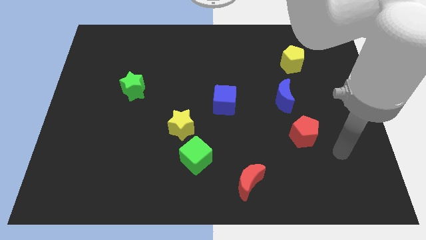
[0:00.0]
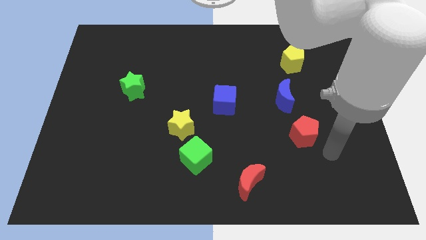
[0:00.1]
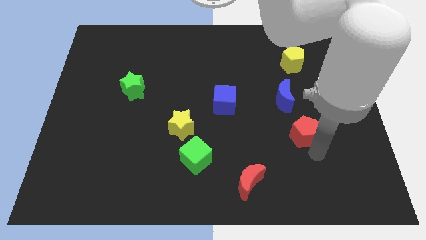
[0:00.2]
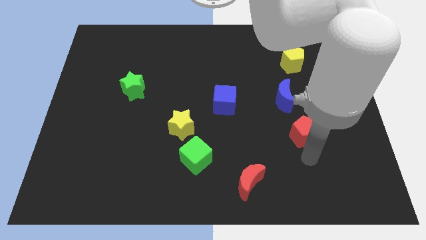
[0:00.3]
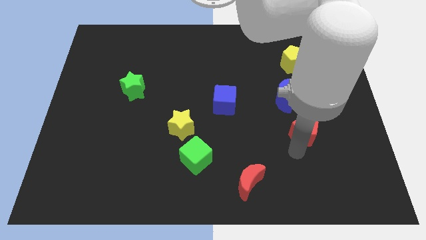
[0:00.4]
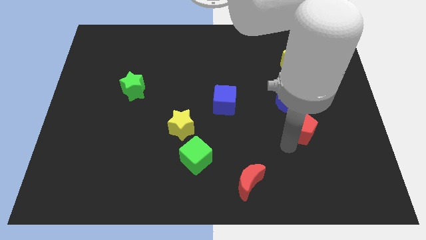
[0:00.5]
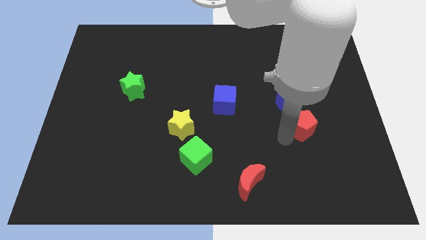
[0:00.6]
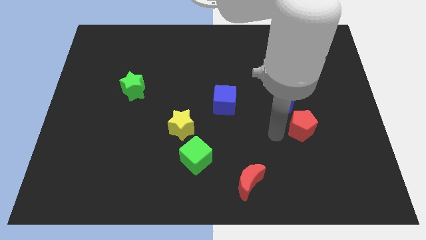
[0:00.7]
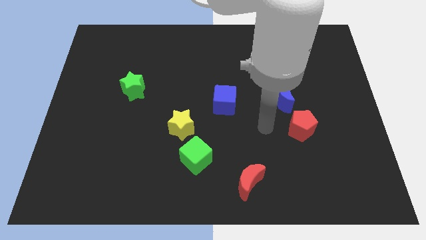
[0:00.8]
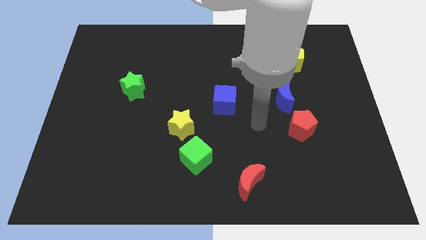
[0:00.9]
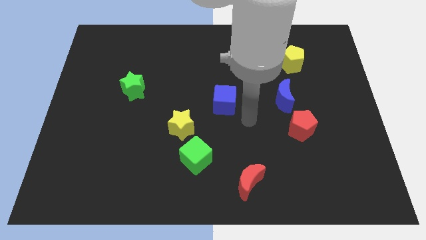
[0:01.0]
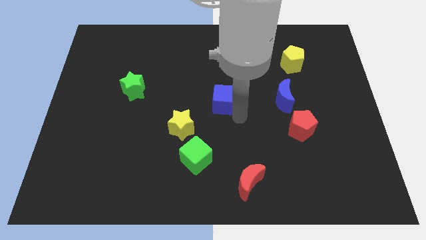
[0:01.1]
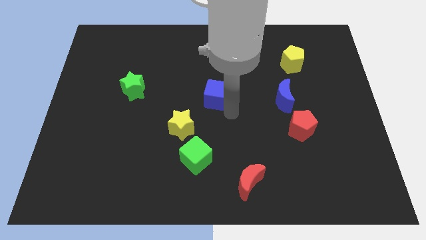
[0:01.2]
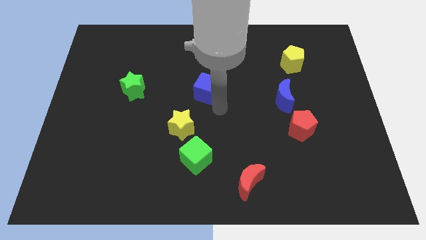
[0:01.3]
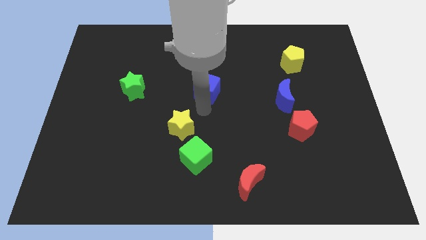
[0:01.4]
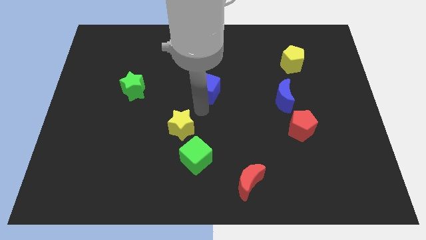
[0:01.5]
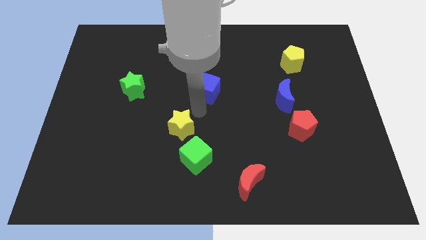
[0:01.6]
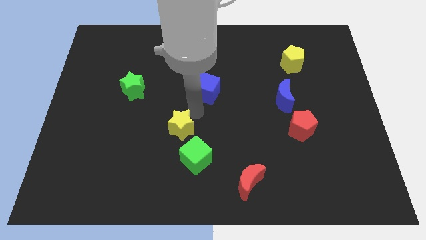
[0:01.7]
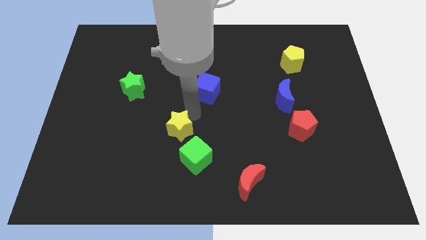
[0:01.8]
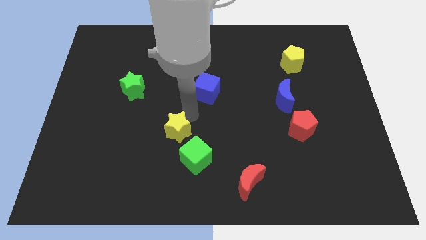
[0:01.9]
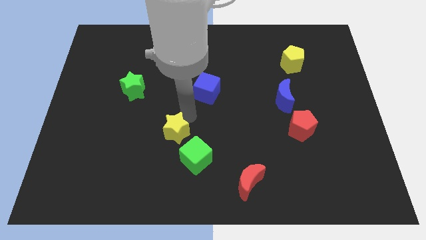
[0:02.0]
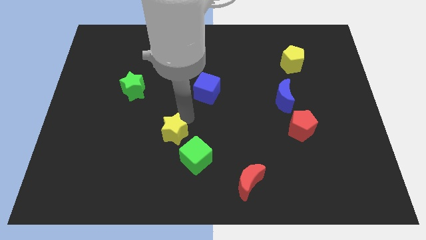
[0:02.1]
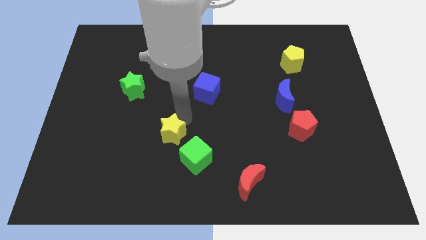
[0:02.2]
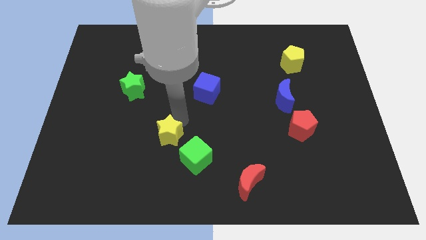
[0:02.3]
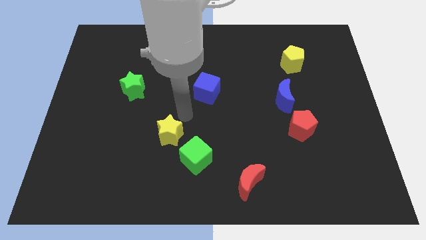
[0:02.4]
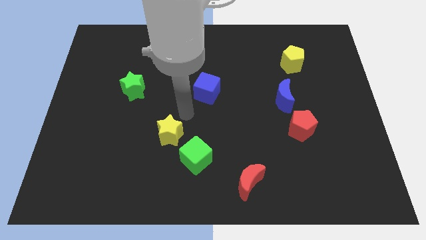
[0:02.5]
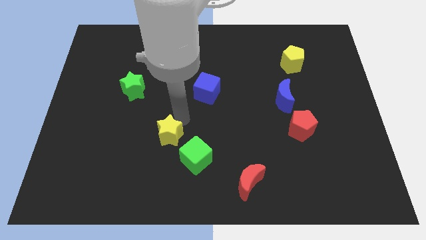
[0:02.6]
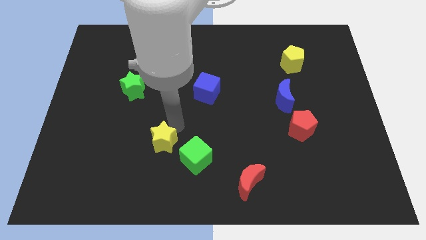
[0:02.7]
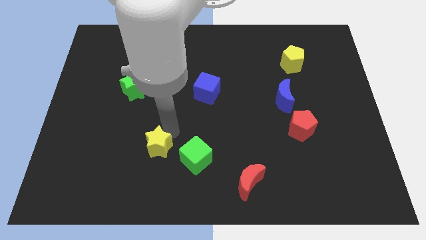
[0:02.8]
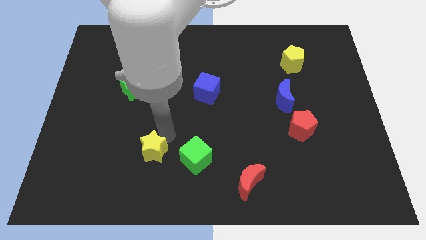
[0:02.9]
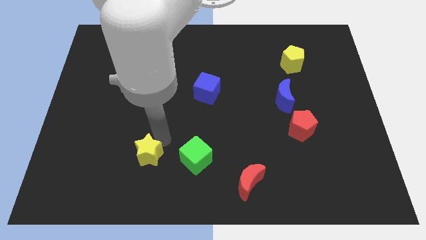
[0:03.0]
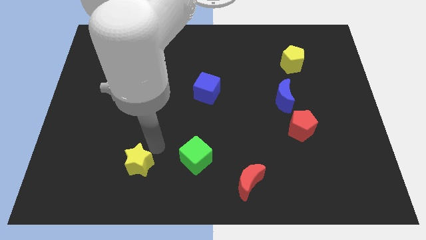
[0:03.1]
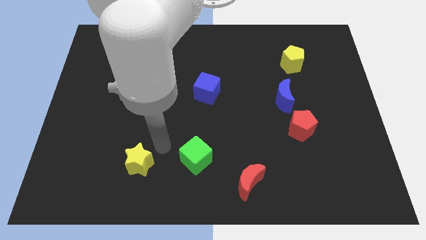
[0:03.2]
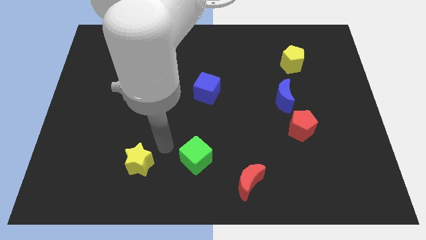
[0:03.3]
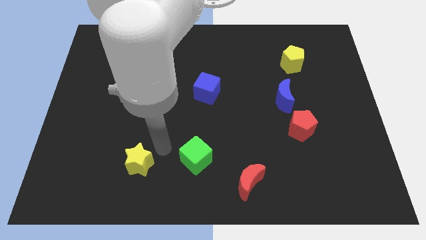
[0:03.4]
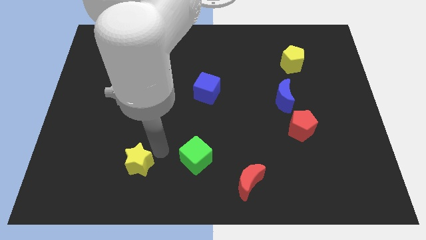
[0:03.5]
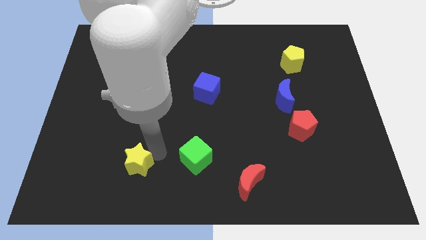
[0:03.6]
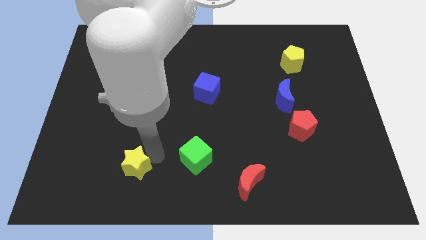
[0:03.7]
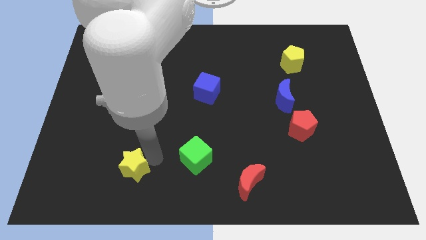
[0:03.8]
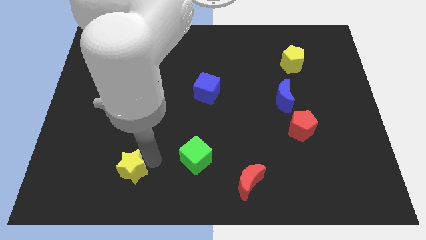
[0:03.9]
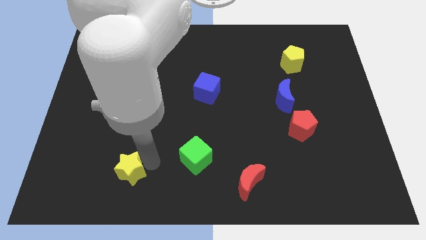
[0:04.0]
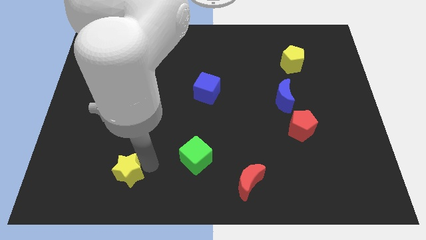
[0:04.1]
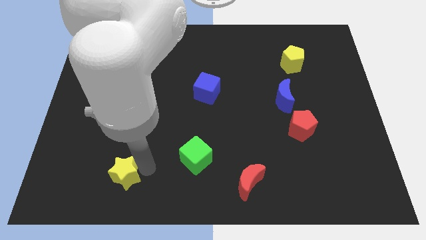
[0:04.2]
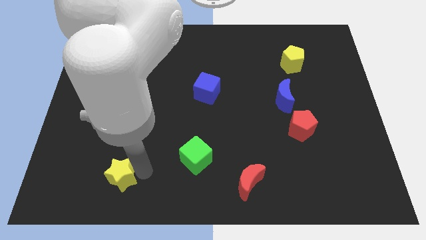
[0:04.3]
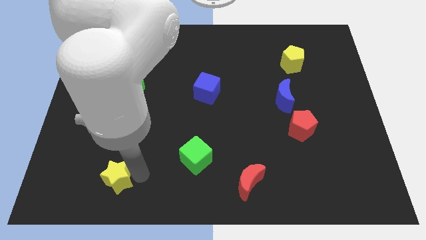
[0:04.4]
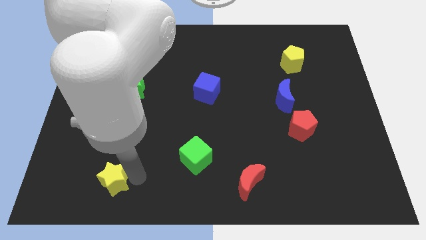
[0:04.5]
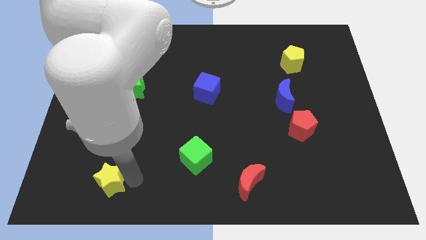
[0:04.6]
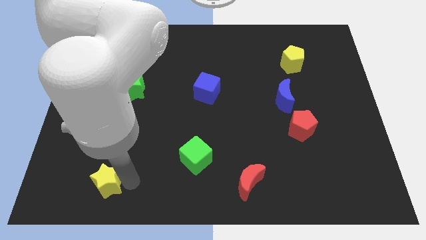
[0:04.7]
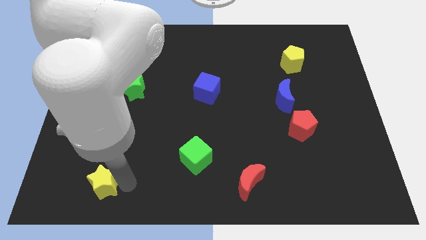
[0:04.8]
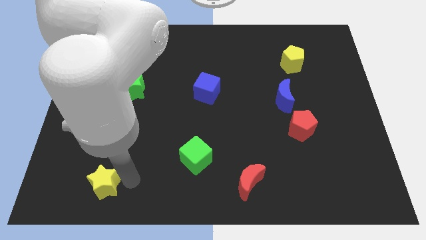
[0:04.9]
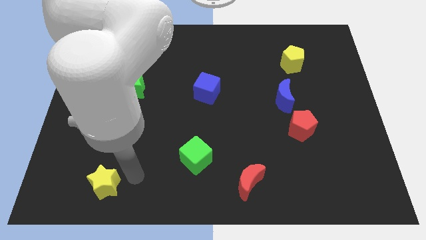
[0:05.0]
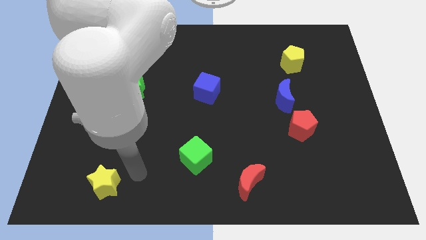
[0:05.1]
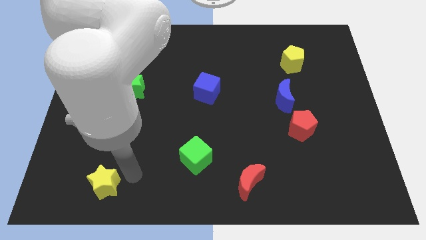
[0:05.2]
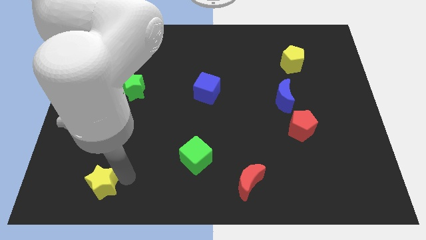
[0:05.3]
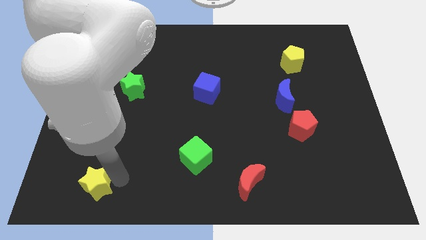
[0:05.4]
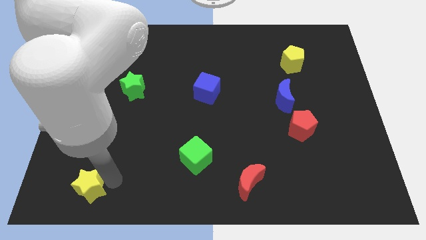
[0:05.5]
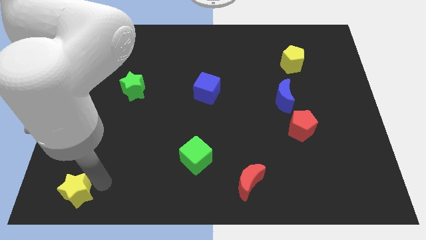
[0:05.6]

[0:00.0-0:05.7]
move the yellow star to the lower left corner

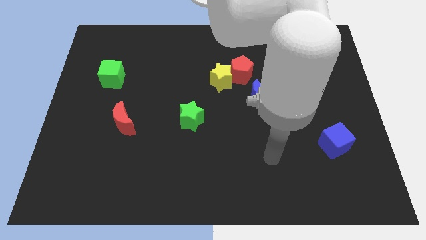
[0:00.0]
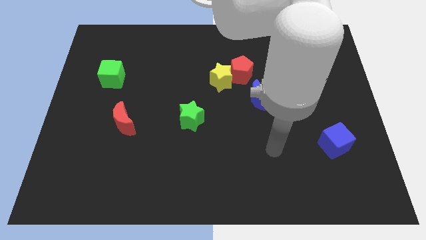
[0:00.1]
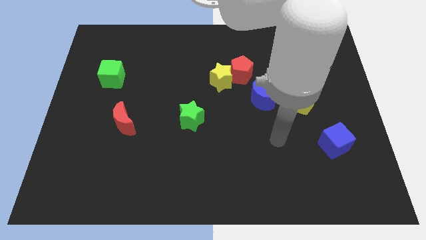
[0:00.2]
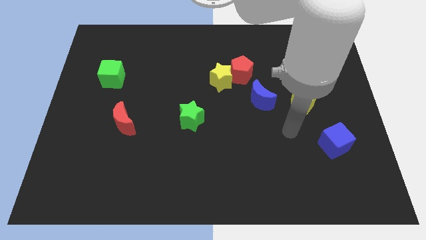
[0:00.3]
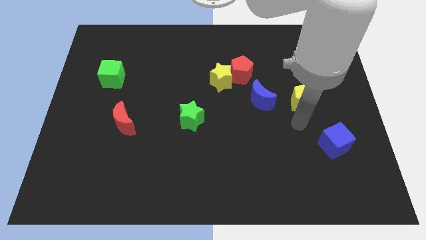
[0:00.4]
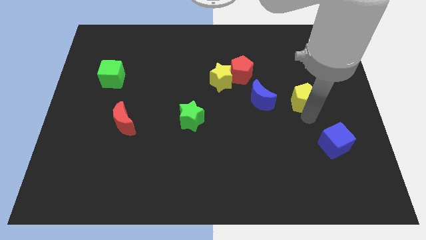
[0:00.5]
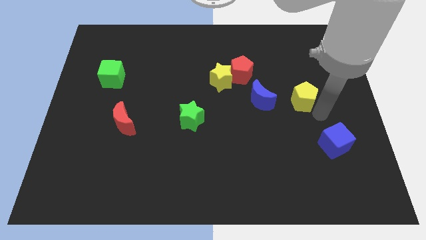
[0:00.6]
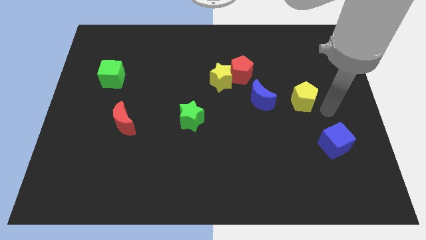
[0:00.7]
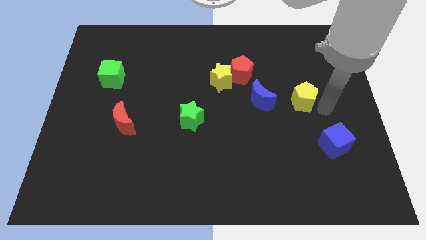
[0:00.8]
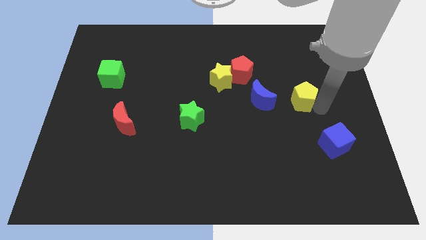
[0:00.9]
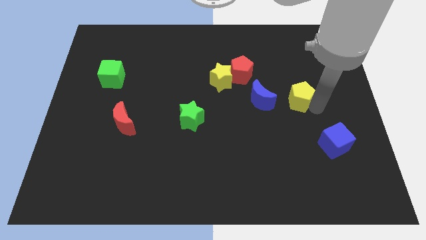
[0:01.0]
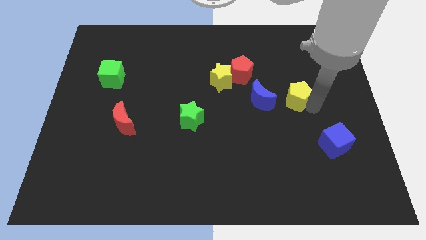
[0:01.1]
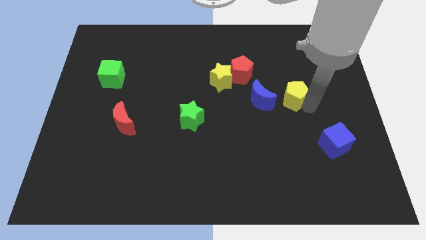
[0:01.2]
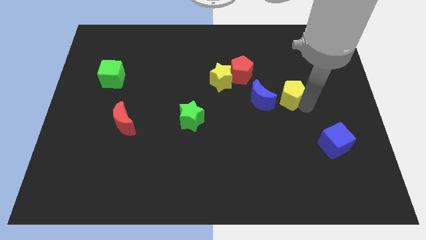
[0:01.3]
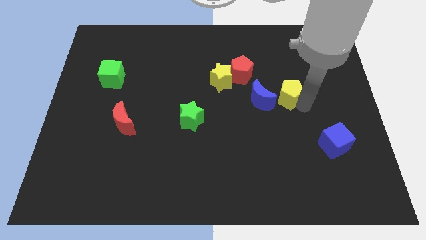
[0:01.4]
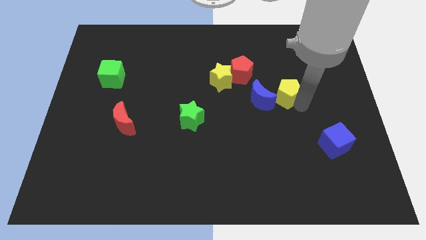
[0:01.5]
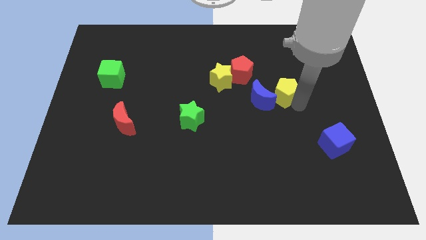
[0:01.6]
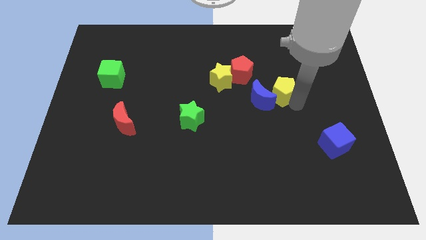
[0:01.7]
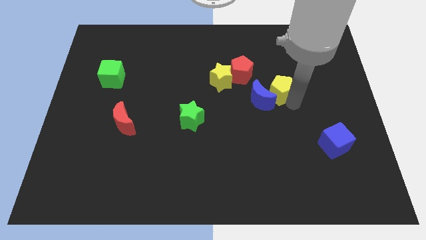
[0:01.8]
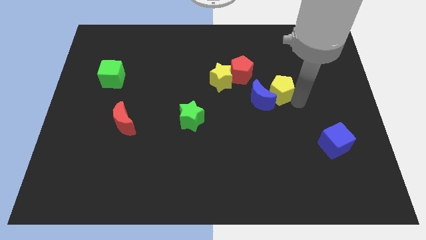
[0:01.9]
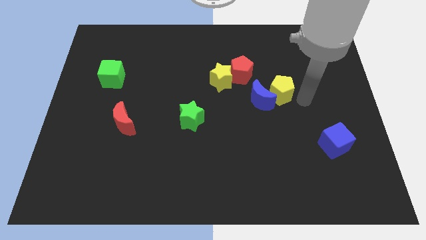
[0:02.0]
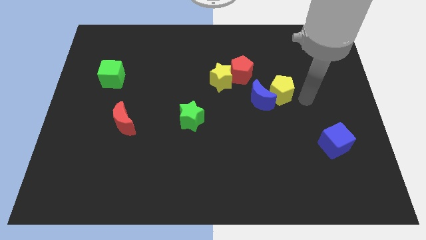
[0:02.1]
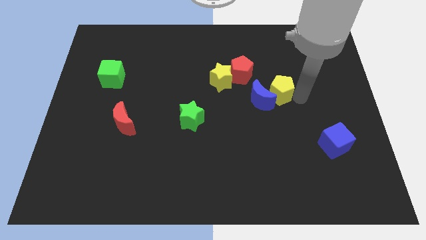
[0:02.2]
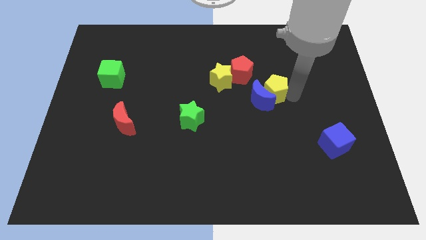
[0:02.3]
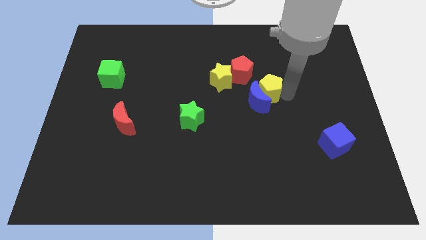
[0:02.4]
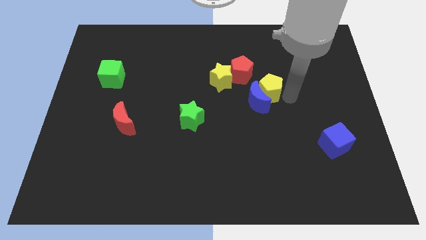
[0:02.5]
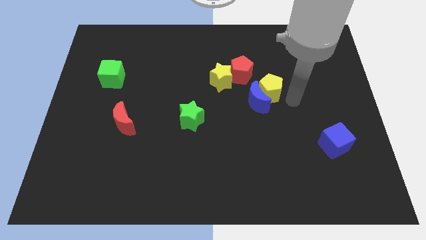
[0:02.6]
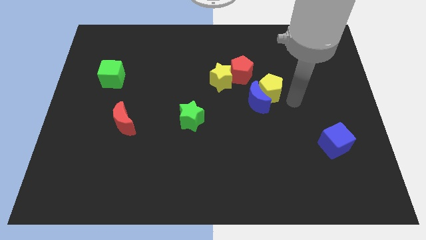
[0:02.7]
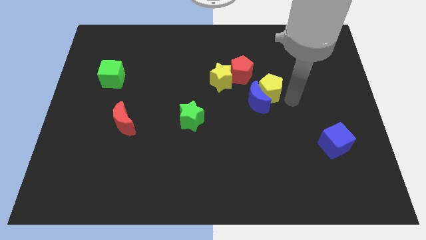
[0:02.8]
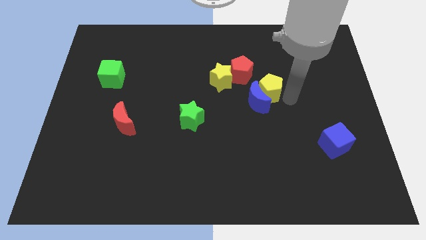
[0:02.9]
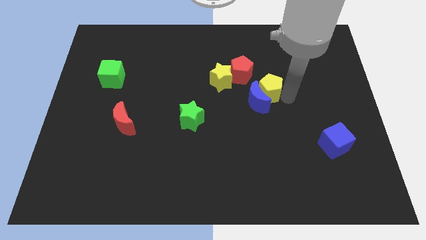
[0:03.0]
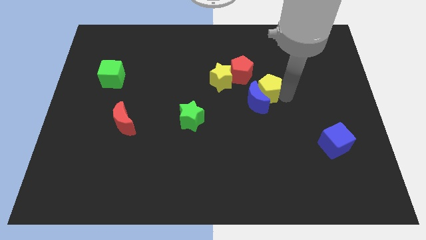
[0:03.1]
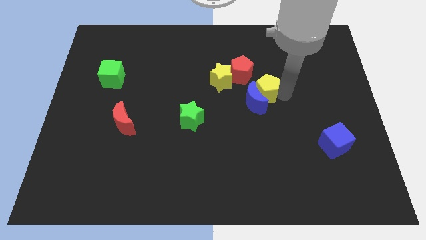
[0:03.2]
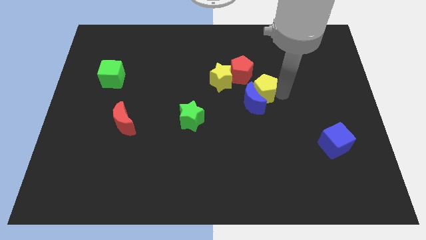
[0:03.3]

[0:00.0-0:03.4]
move the yellow pentagon to the center
